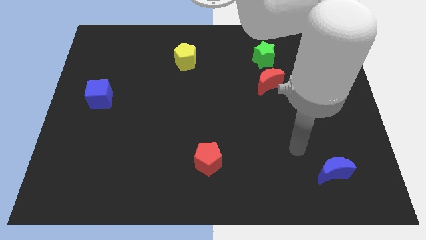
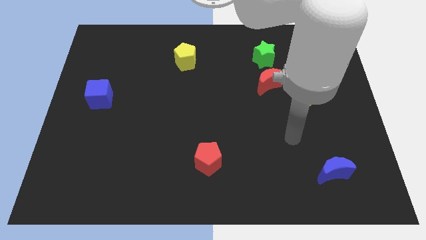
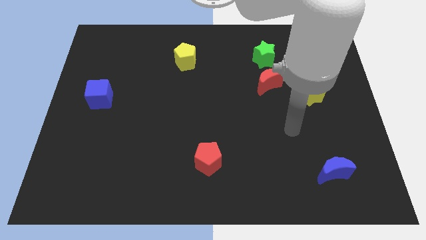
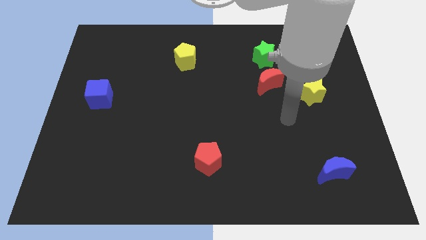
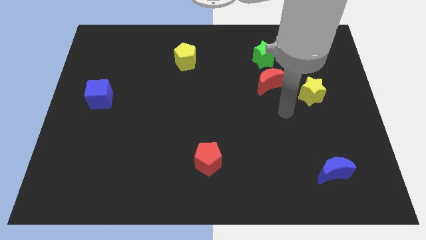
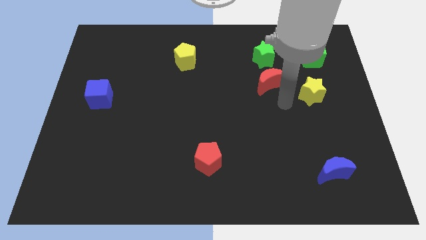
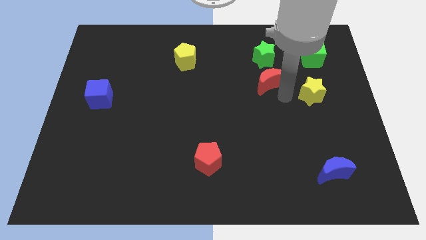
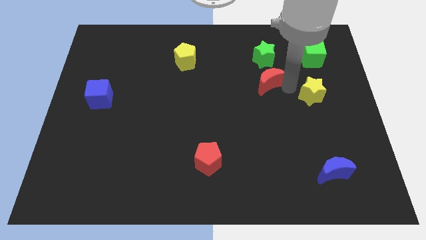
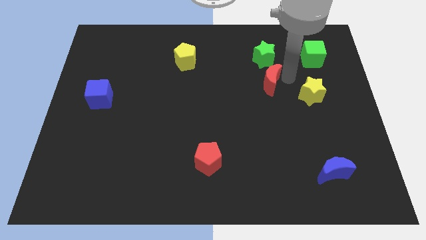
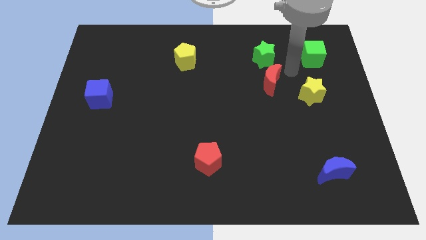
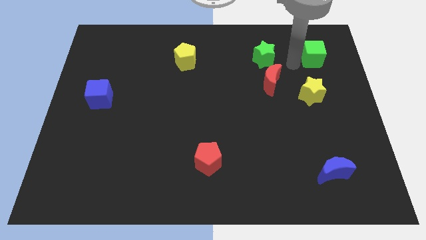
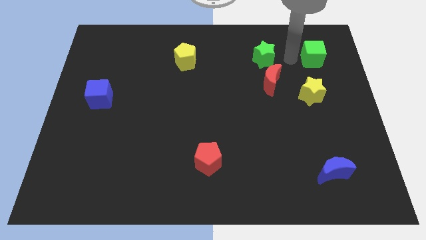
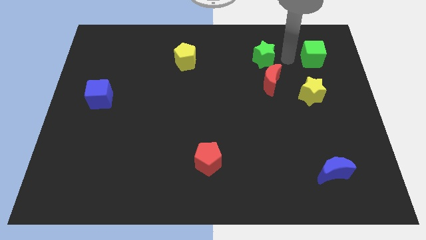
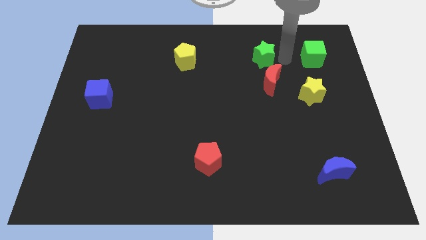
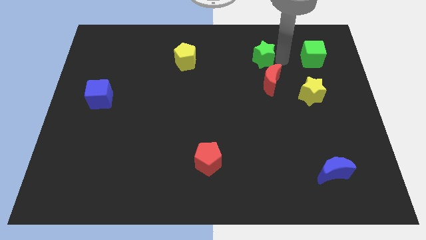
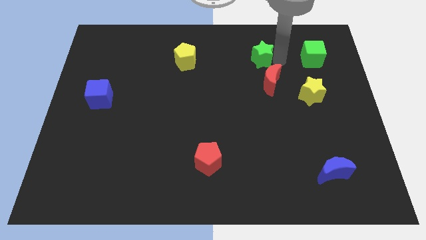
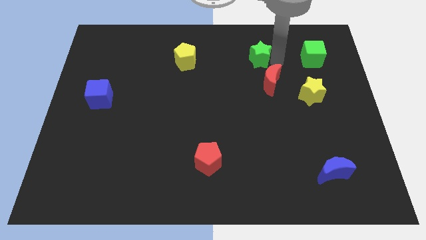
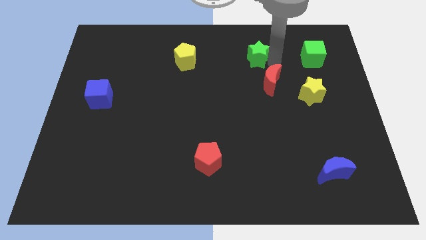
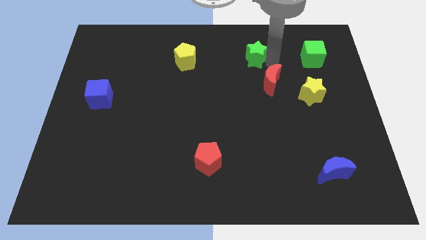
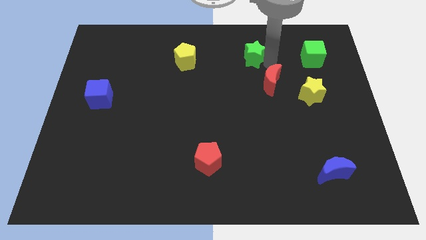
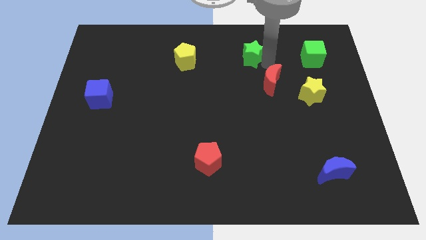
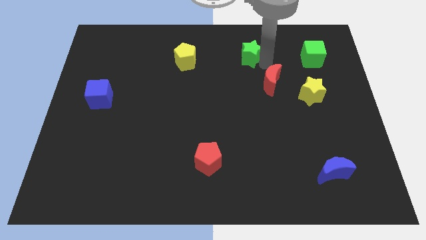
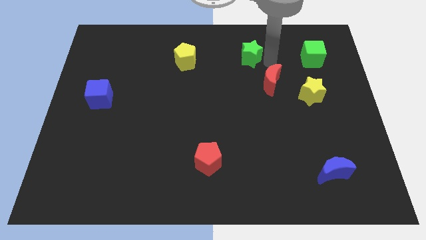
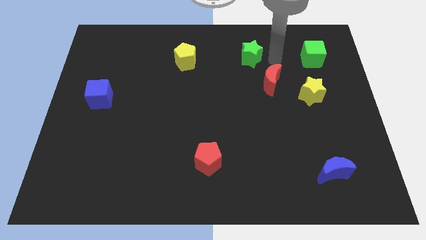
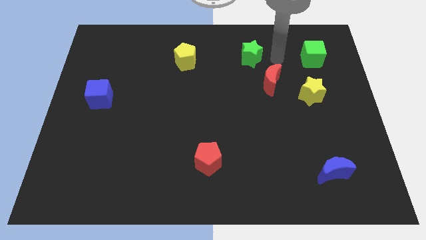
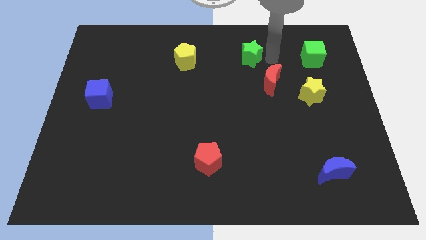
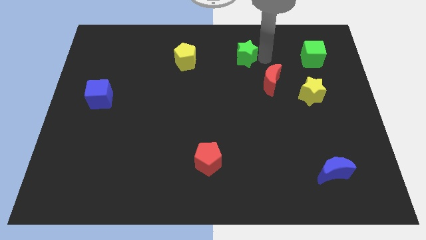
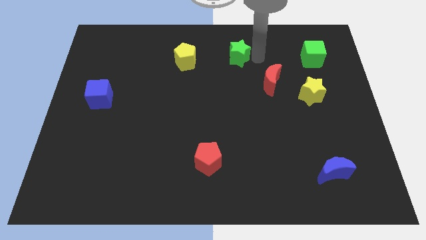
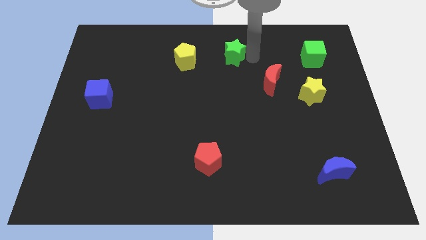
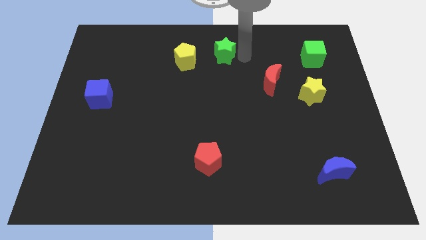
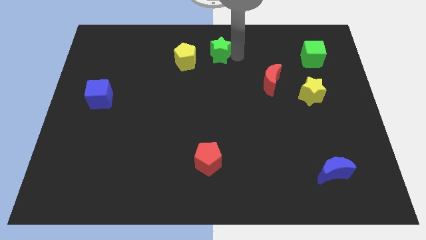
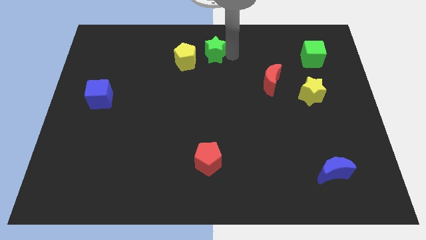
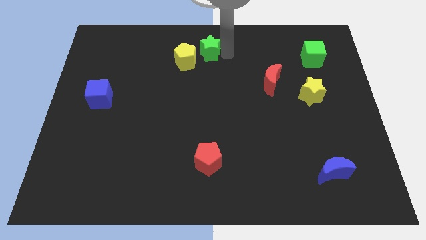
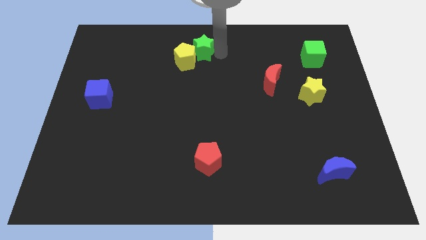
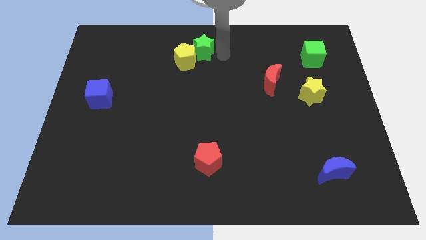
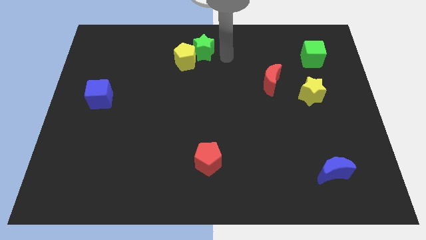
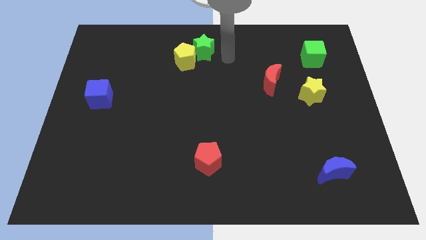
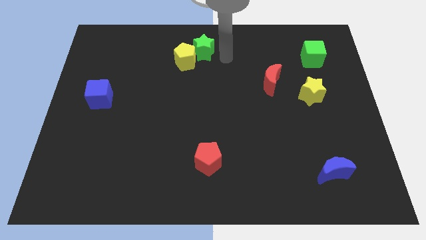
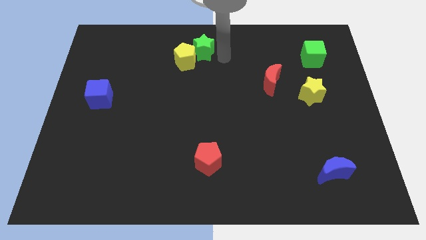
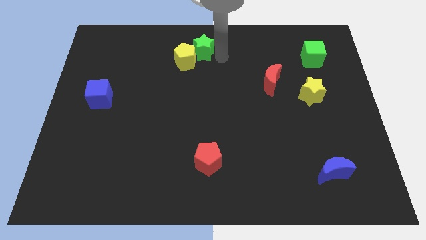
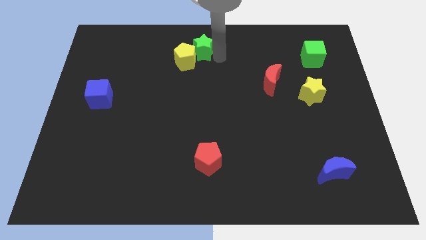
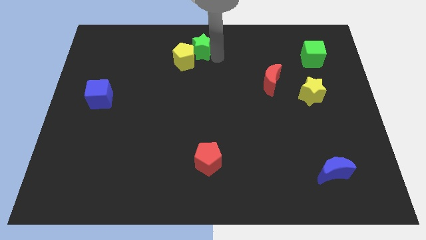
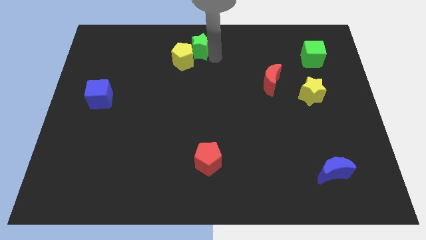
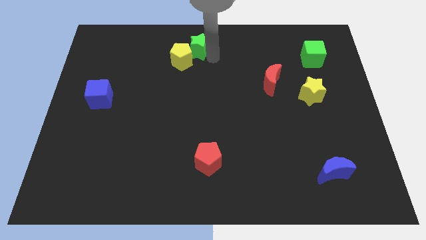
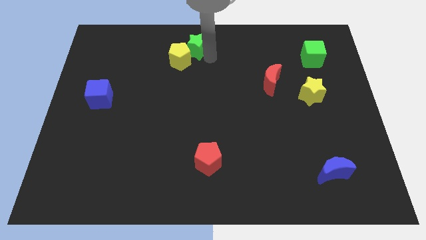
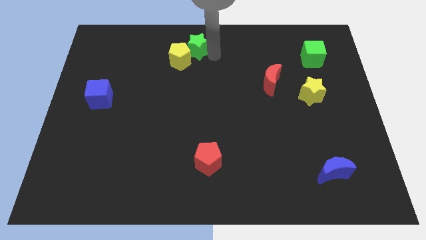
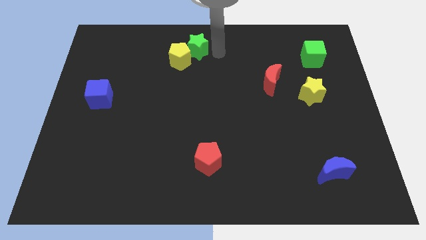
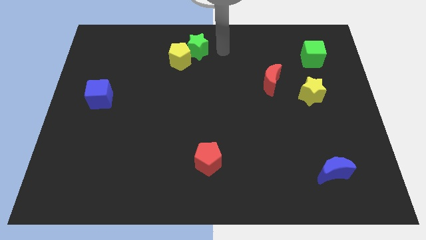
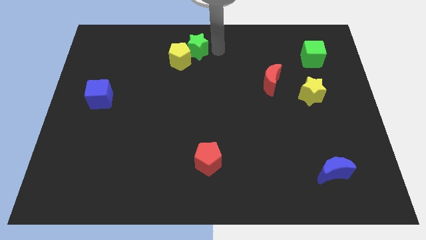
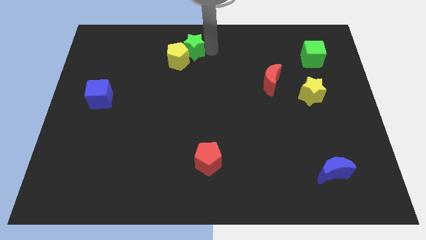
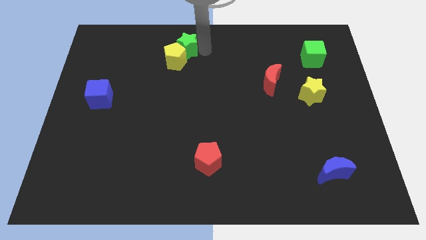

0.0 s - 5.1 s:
push the green star to the left

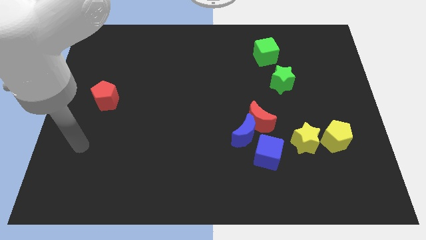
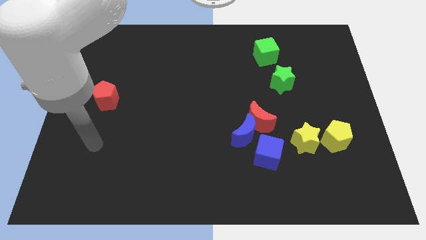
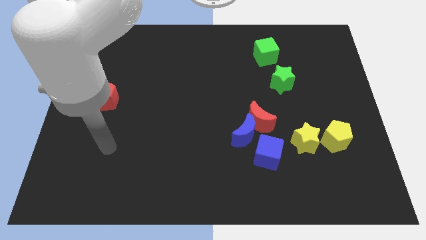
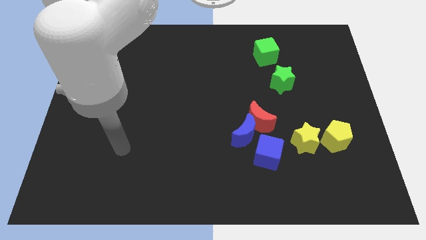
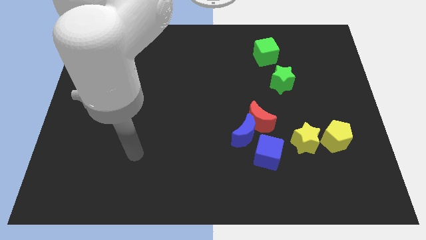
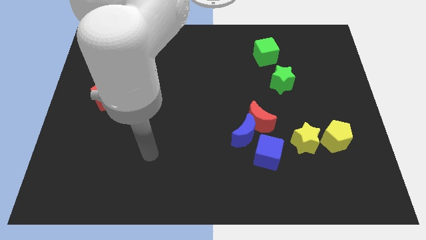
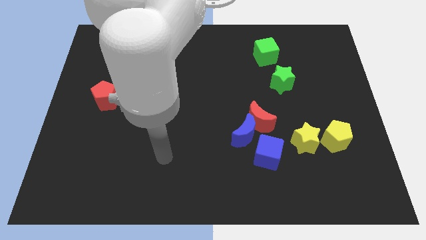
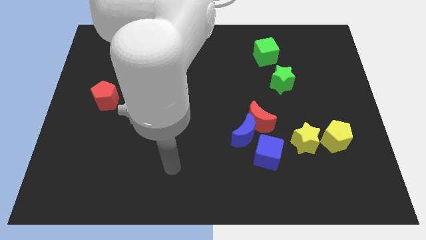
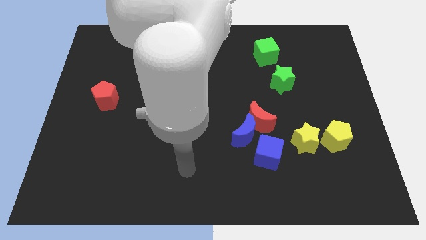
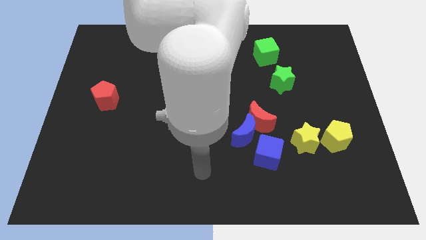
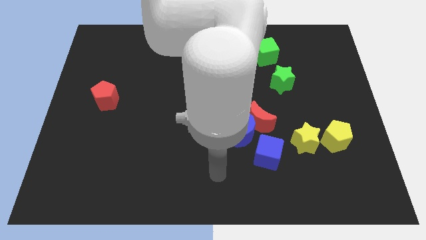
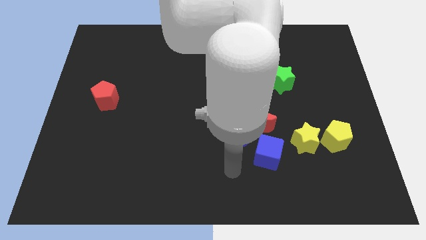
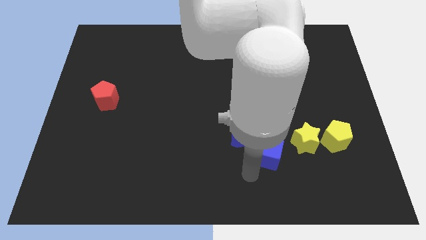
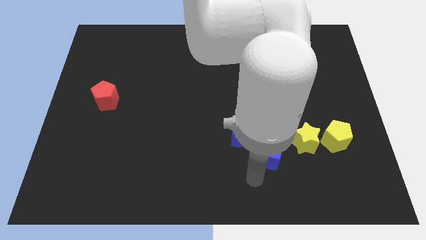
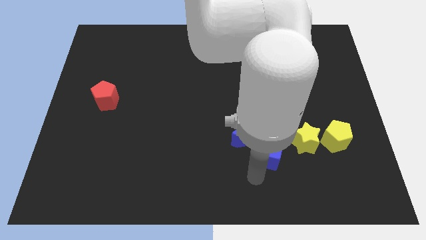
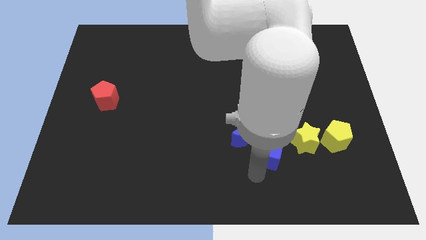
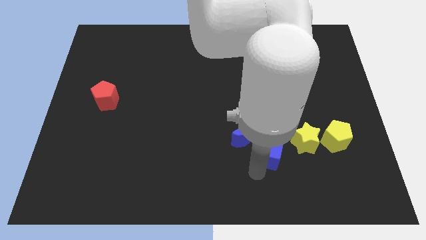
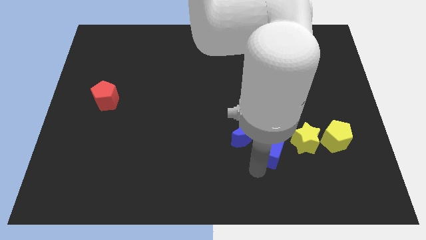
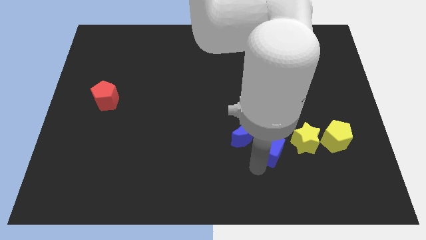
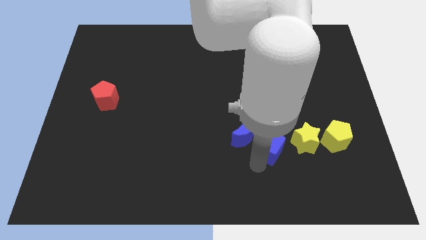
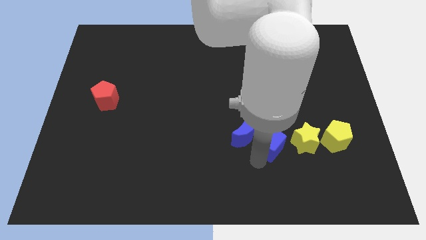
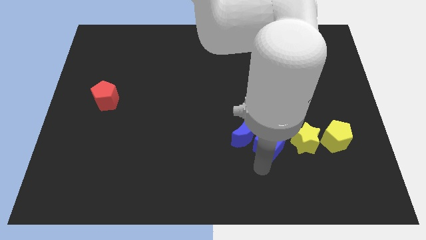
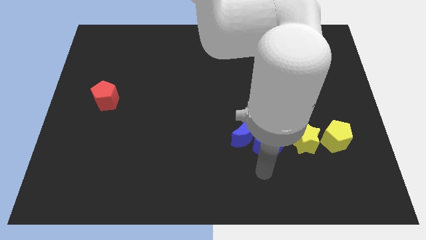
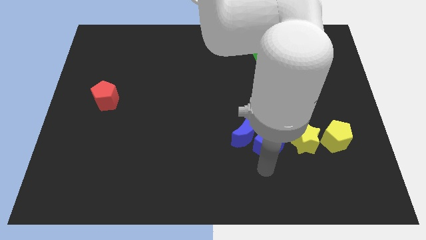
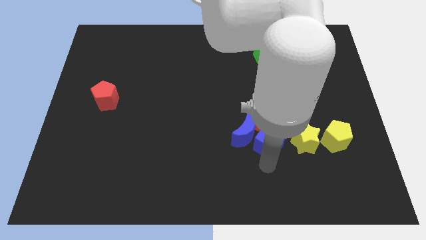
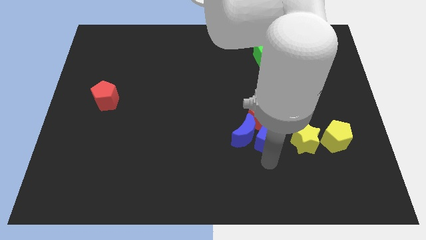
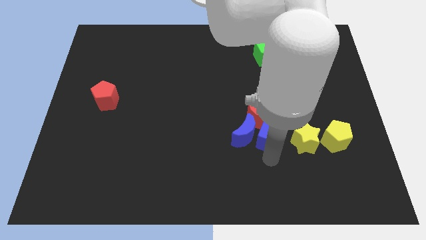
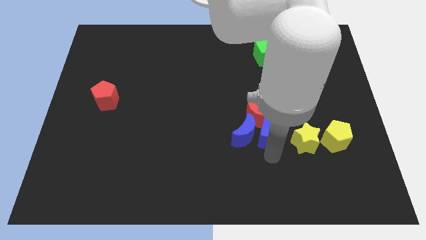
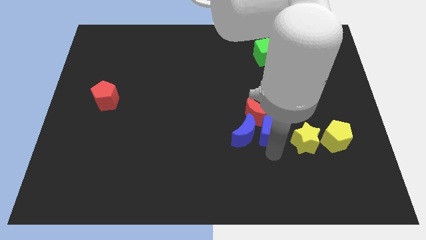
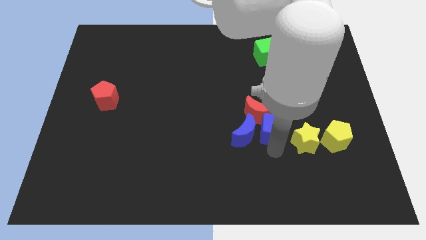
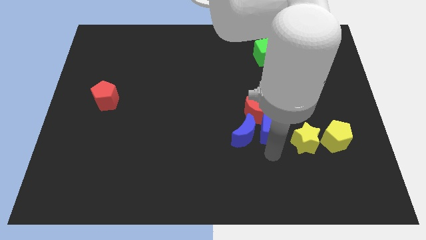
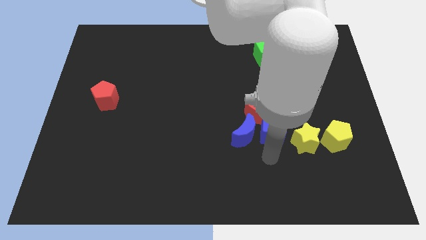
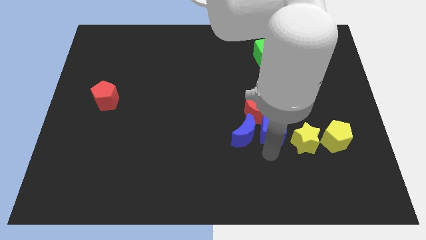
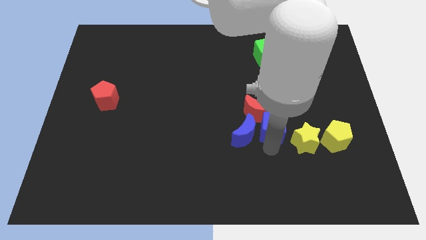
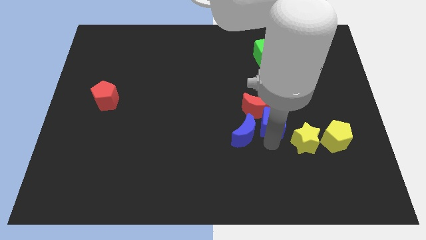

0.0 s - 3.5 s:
push the blue cube a little bit upwards
